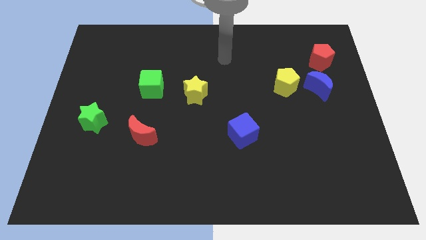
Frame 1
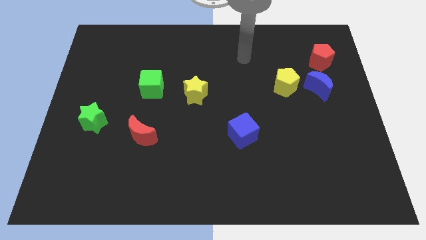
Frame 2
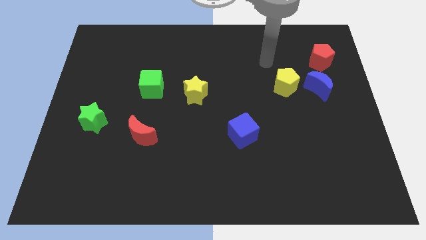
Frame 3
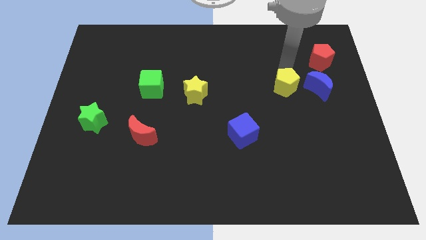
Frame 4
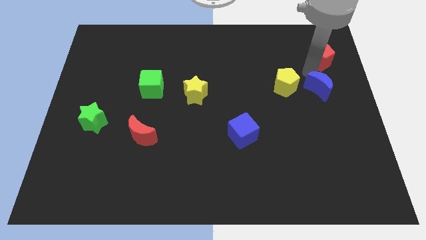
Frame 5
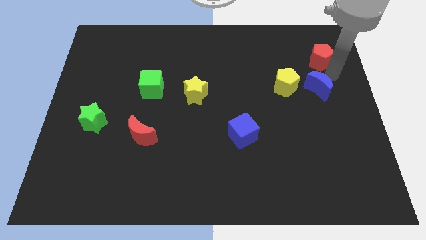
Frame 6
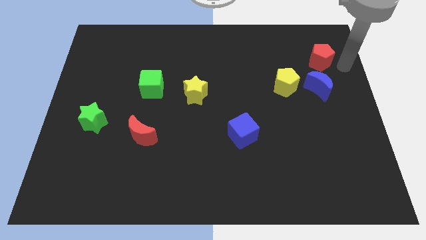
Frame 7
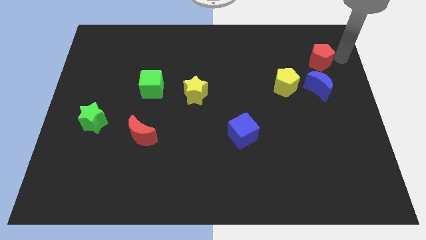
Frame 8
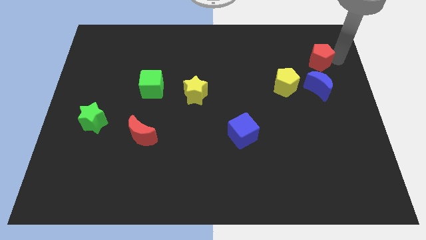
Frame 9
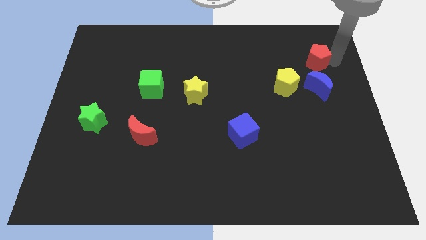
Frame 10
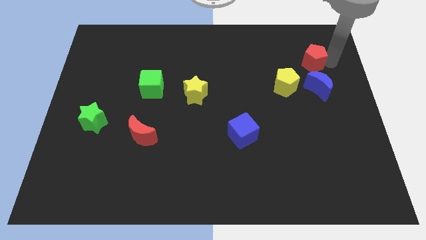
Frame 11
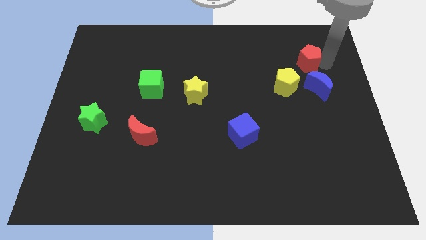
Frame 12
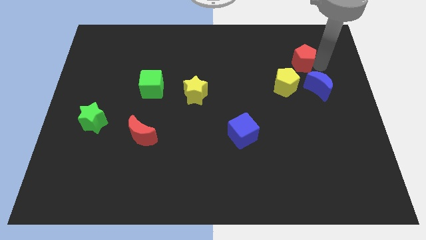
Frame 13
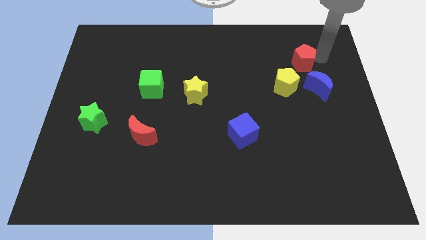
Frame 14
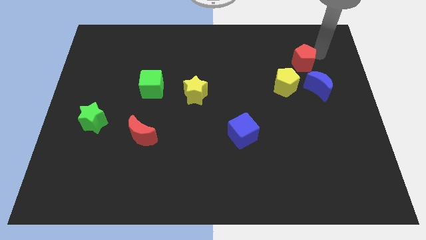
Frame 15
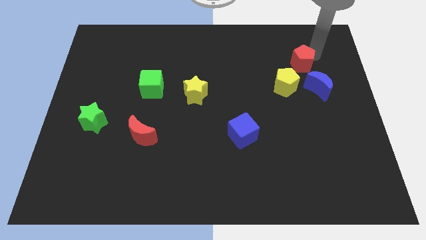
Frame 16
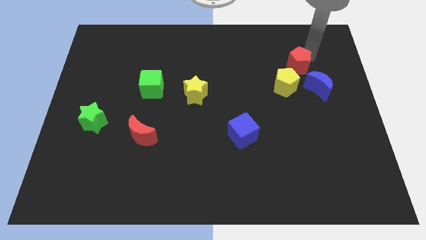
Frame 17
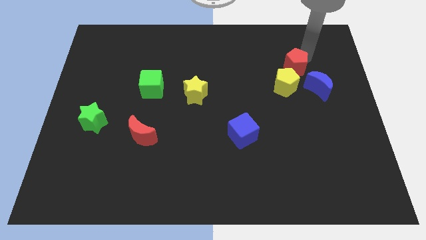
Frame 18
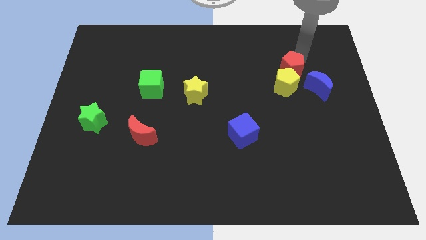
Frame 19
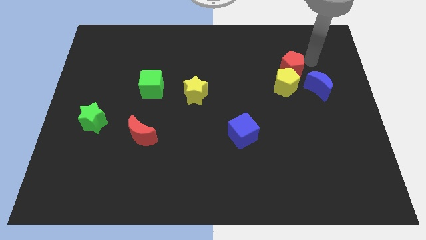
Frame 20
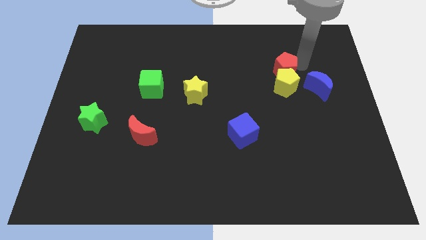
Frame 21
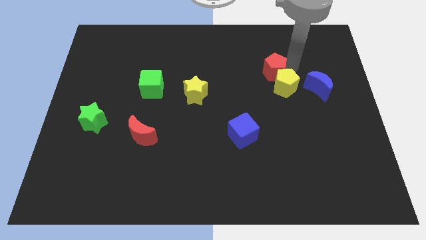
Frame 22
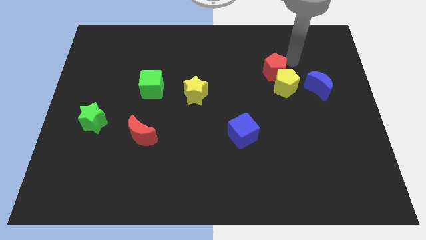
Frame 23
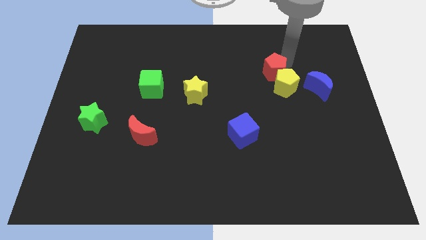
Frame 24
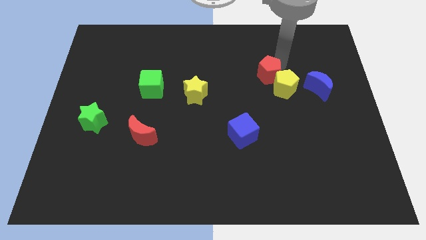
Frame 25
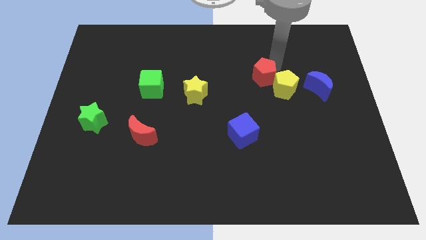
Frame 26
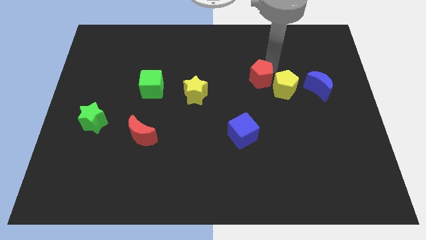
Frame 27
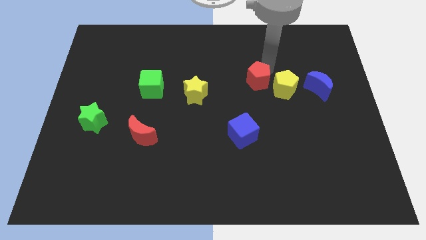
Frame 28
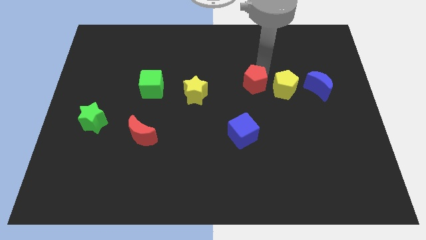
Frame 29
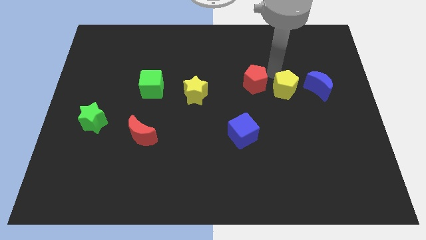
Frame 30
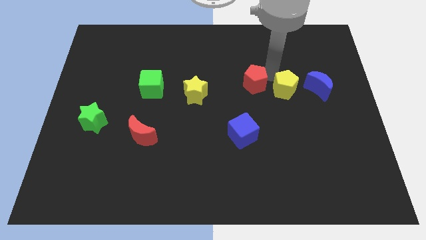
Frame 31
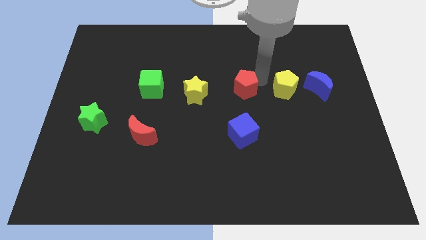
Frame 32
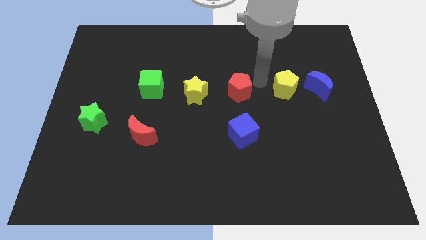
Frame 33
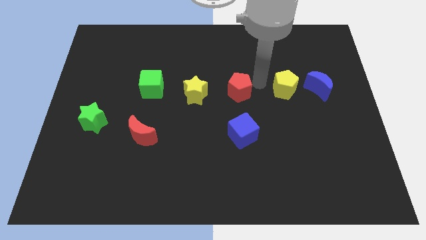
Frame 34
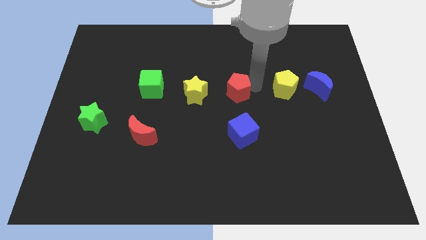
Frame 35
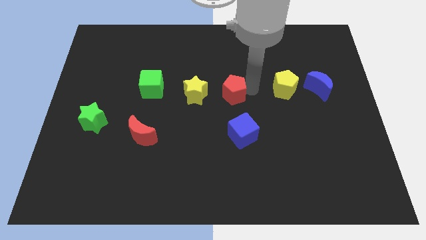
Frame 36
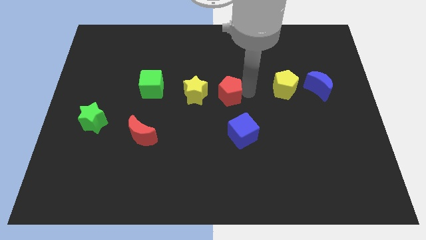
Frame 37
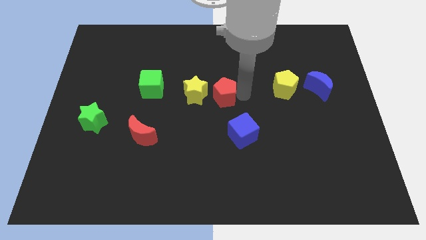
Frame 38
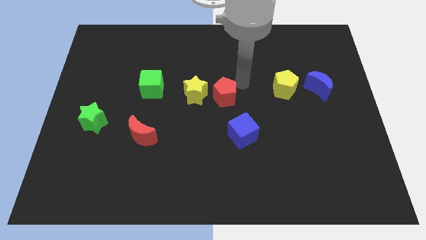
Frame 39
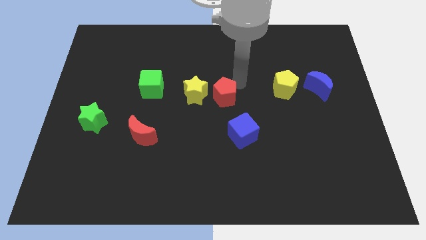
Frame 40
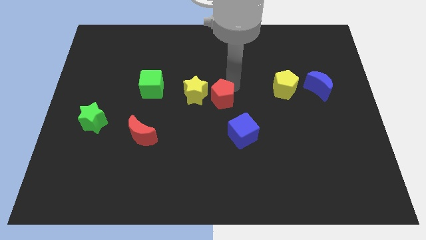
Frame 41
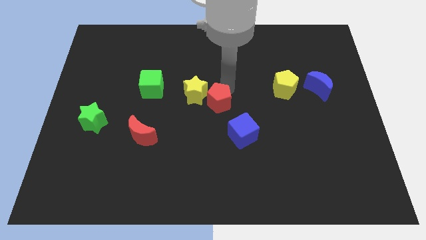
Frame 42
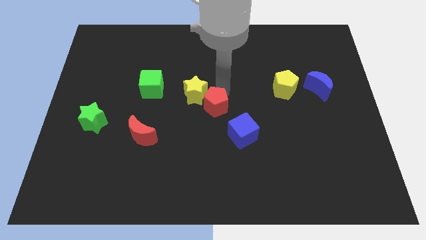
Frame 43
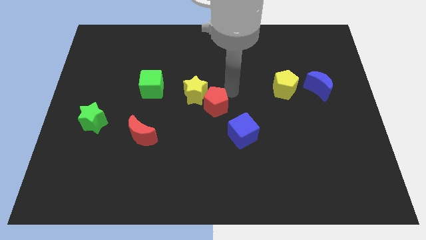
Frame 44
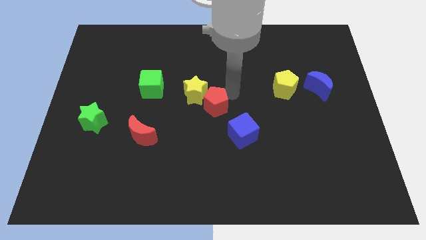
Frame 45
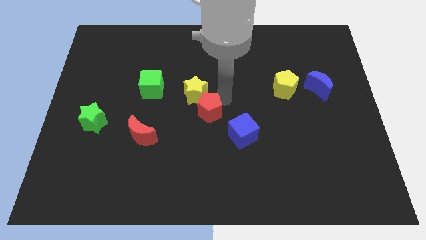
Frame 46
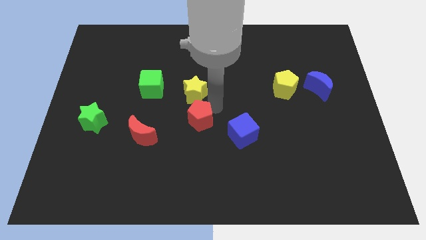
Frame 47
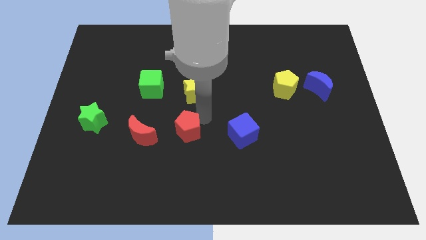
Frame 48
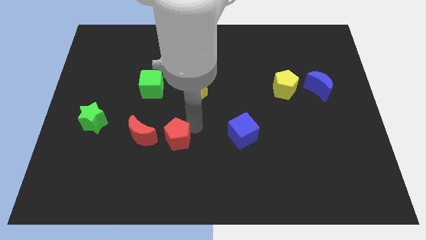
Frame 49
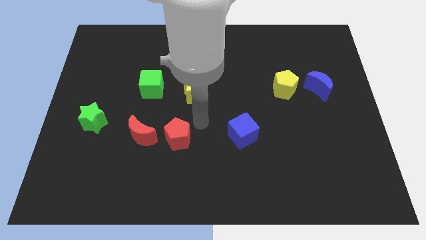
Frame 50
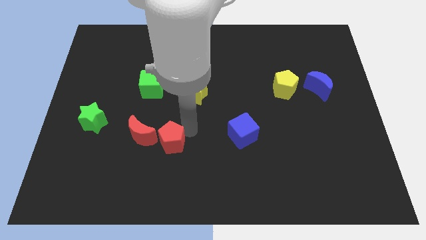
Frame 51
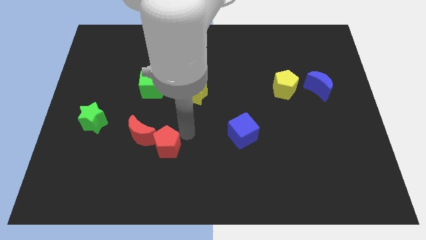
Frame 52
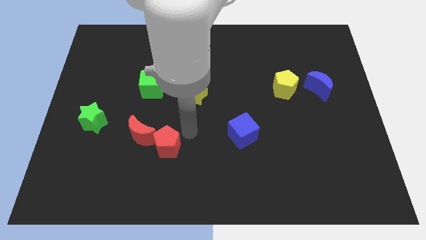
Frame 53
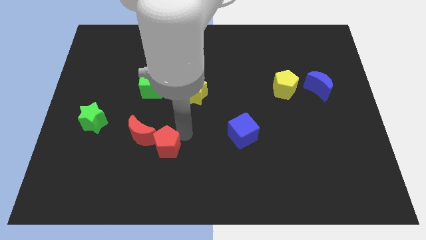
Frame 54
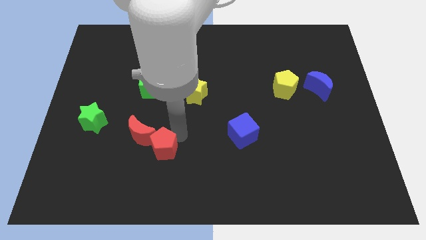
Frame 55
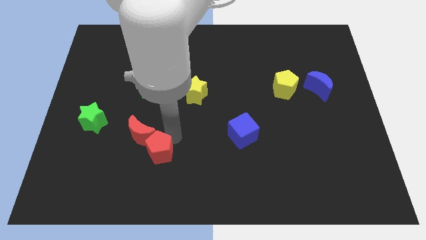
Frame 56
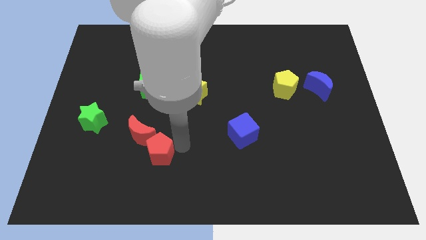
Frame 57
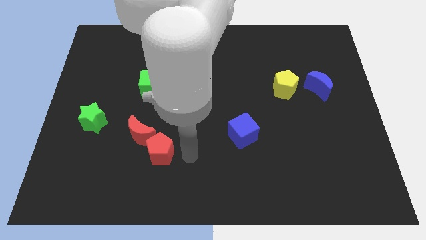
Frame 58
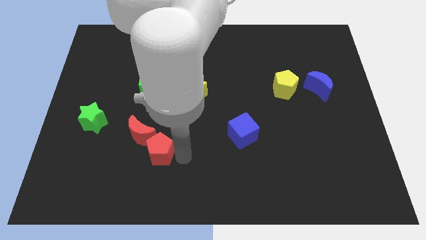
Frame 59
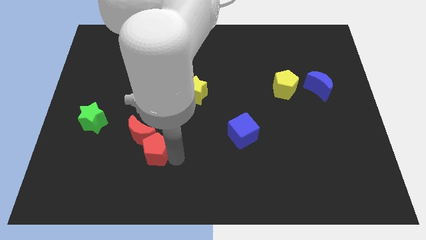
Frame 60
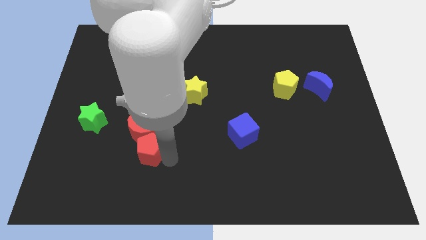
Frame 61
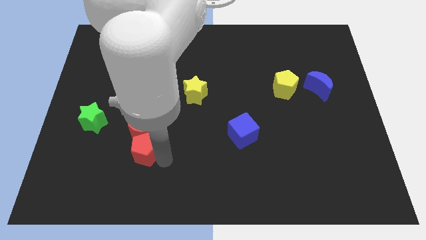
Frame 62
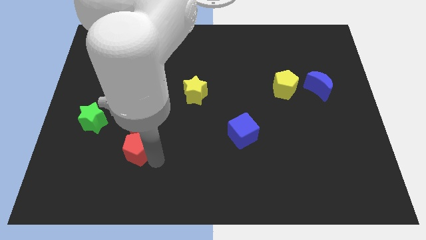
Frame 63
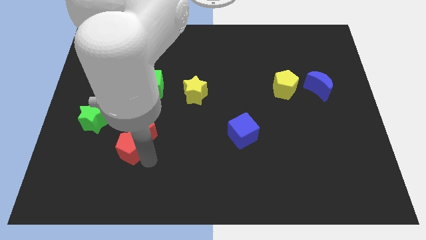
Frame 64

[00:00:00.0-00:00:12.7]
slide the red pentagon diagonally down and to the right of the green star

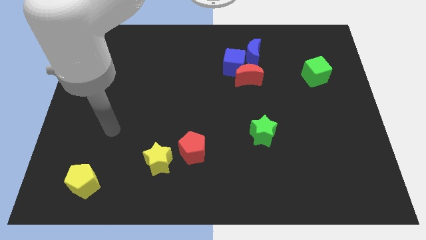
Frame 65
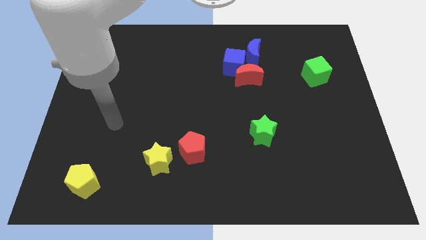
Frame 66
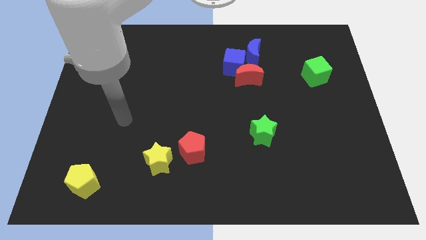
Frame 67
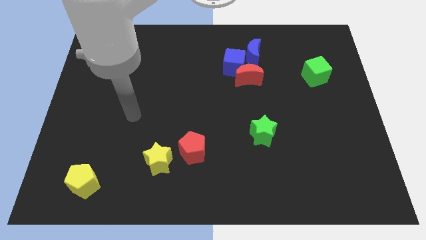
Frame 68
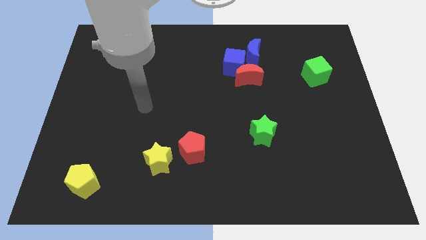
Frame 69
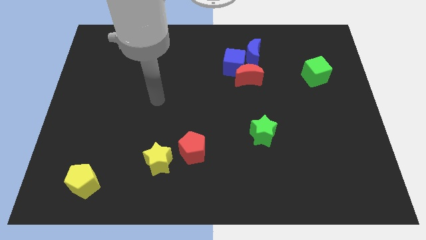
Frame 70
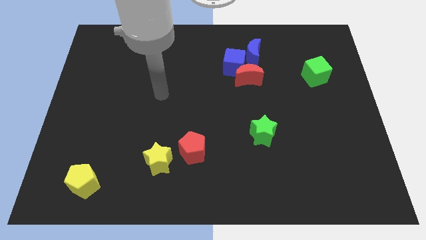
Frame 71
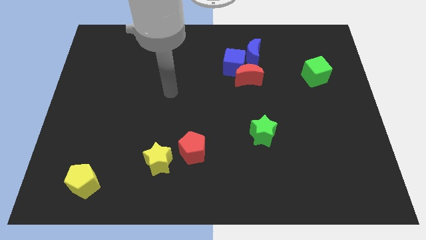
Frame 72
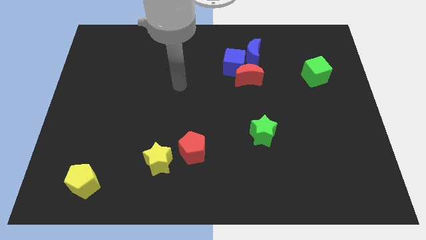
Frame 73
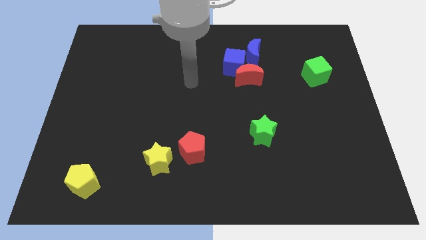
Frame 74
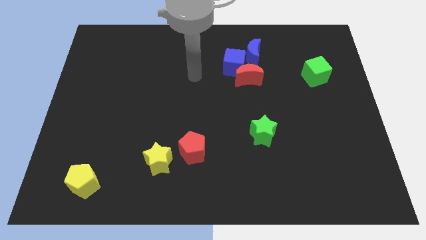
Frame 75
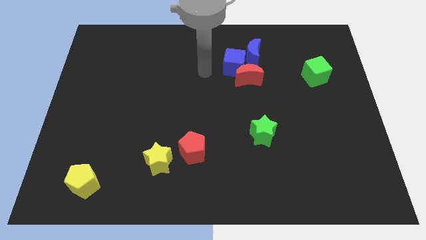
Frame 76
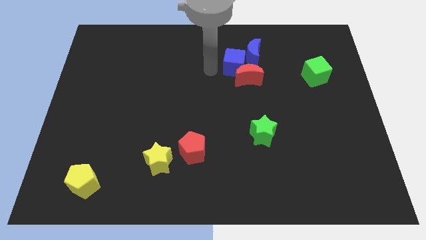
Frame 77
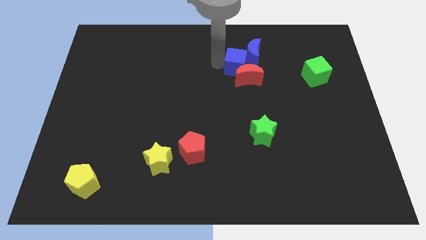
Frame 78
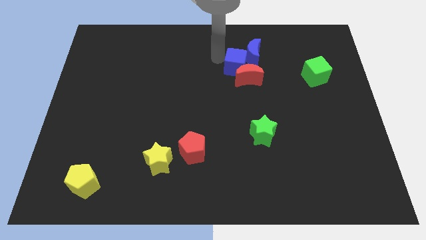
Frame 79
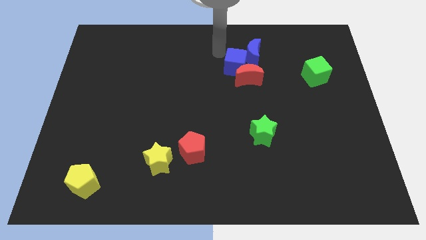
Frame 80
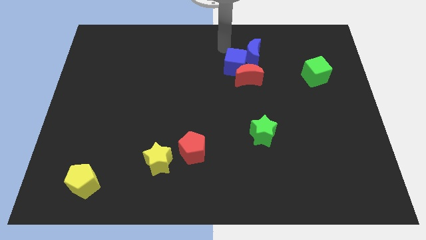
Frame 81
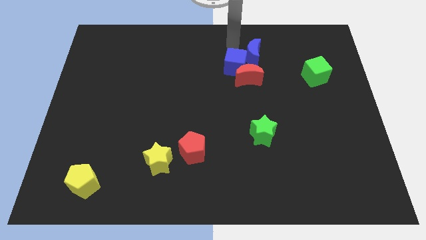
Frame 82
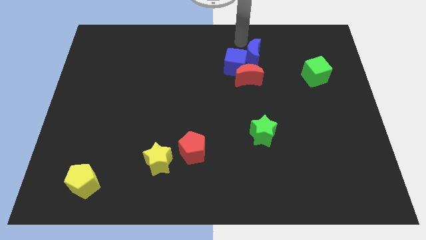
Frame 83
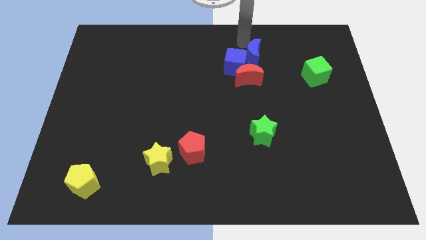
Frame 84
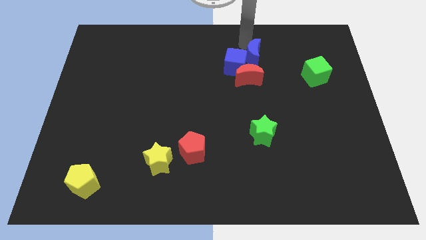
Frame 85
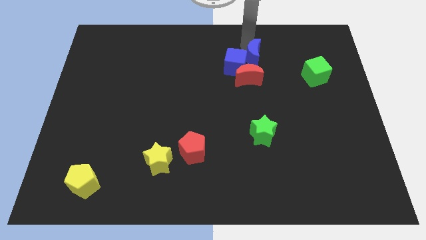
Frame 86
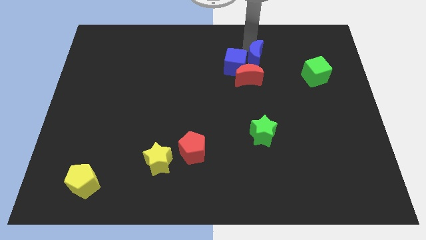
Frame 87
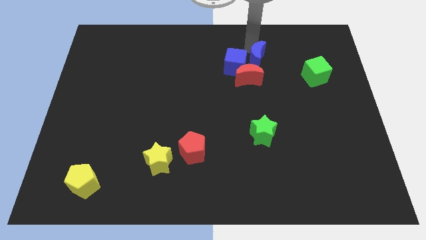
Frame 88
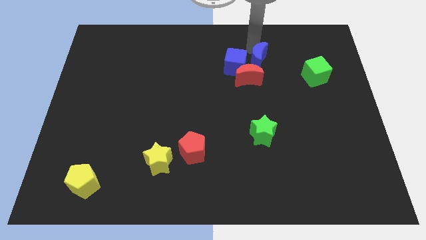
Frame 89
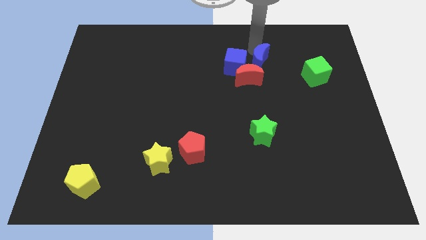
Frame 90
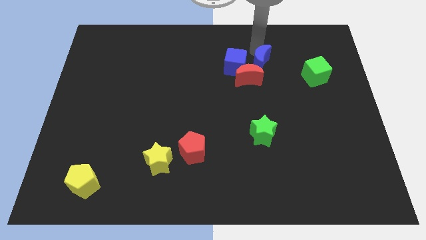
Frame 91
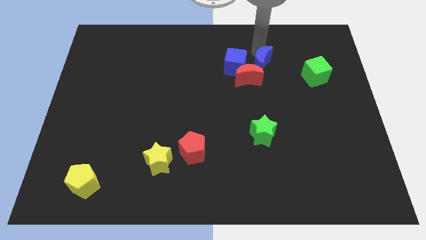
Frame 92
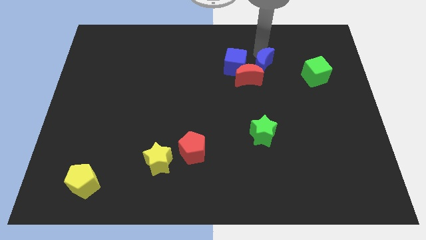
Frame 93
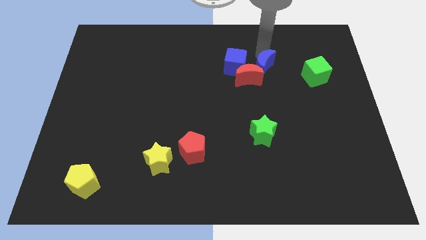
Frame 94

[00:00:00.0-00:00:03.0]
move the blue moon to the bottom right of the blue cube
